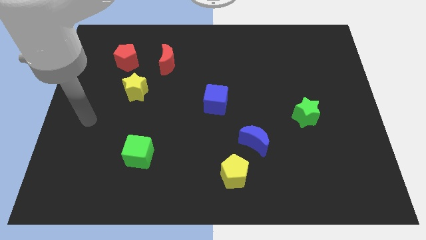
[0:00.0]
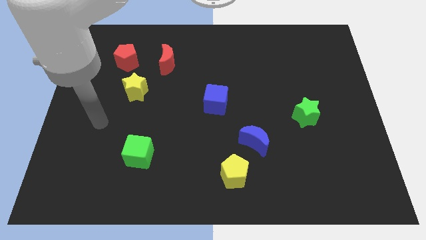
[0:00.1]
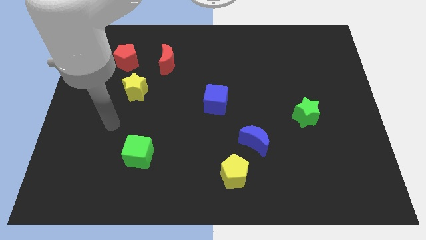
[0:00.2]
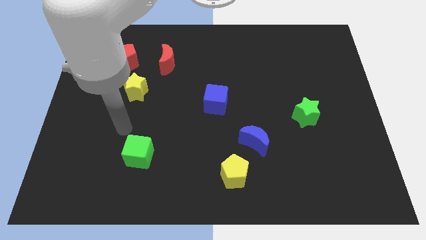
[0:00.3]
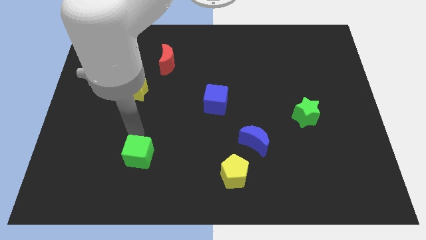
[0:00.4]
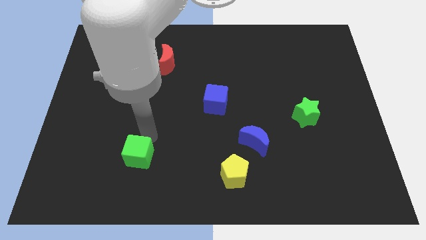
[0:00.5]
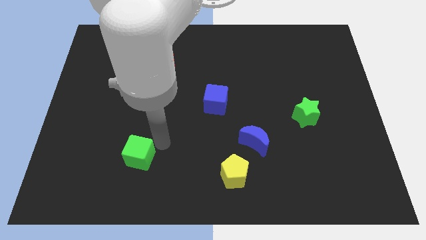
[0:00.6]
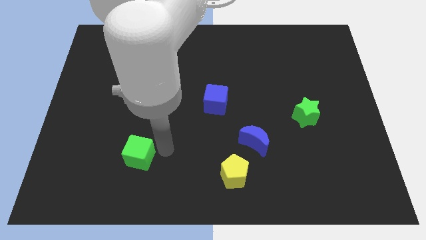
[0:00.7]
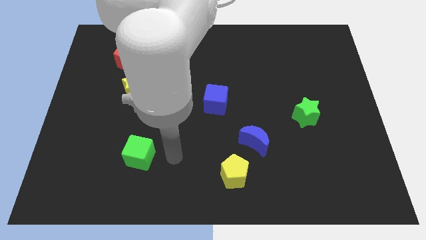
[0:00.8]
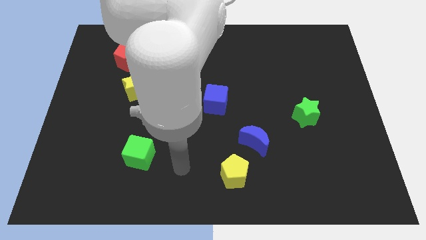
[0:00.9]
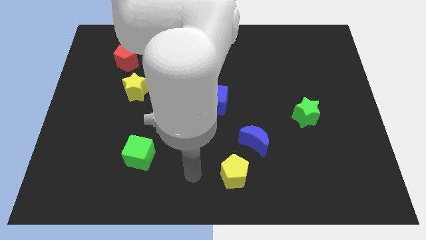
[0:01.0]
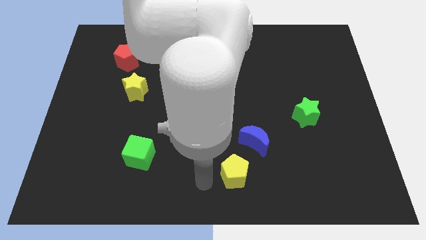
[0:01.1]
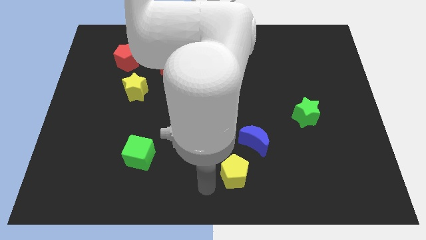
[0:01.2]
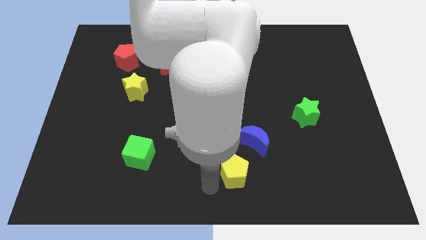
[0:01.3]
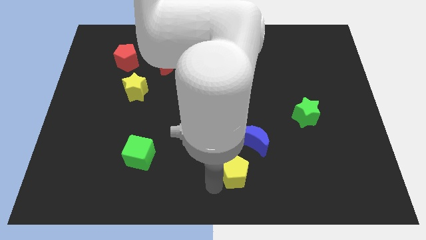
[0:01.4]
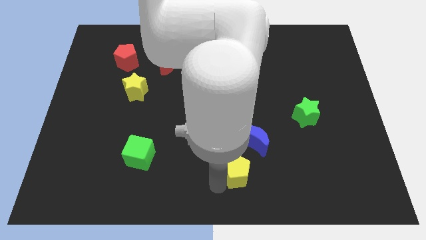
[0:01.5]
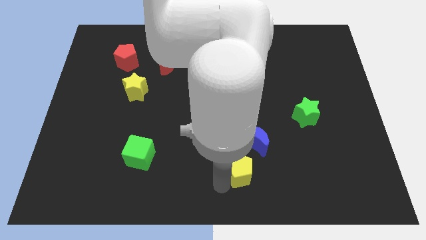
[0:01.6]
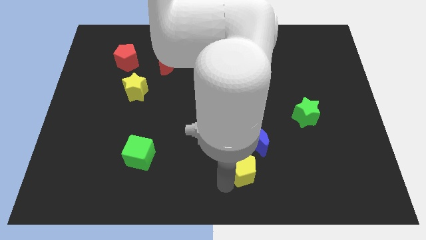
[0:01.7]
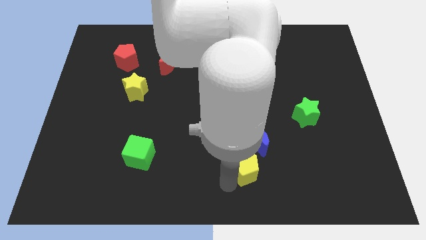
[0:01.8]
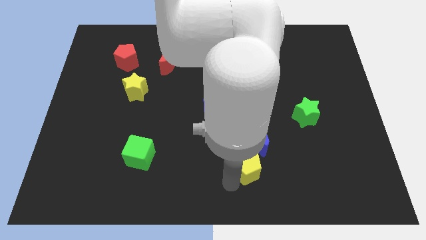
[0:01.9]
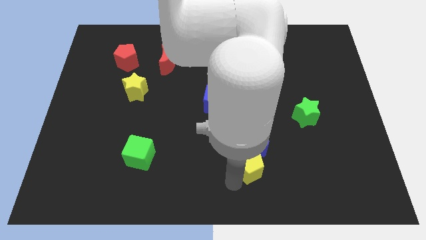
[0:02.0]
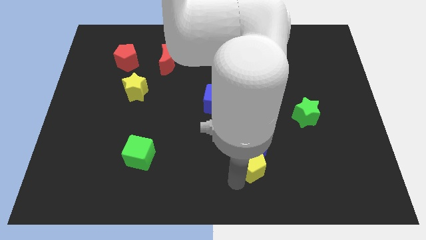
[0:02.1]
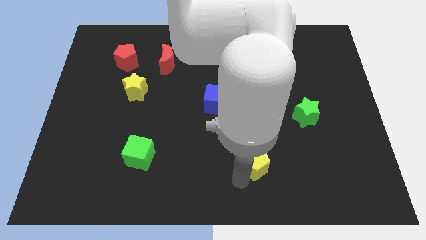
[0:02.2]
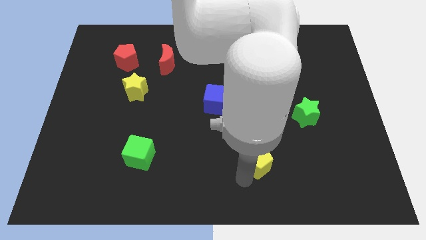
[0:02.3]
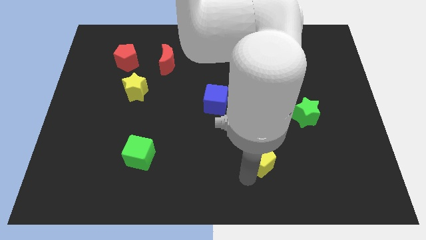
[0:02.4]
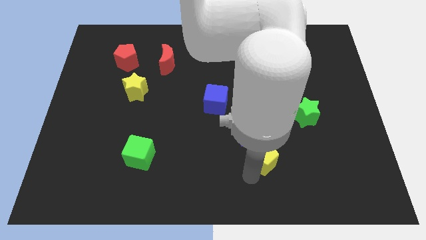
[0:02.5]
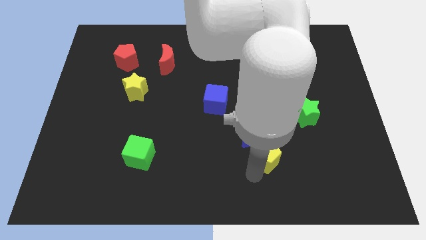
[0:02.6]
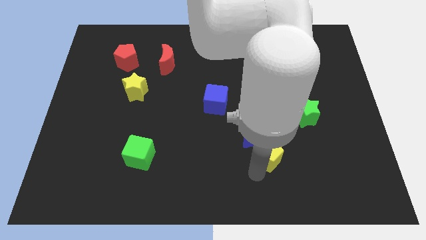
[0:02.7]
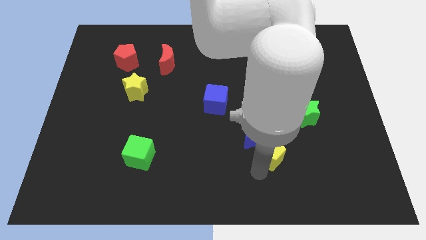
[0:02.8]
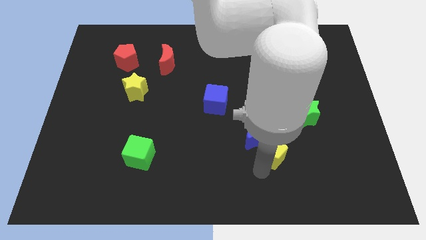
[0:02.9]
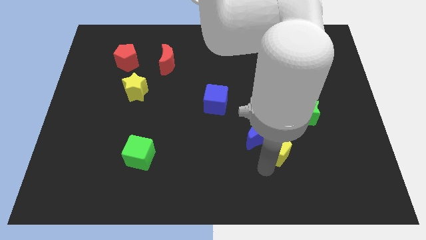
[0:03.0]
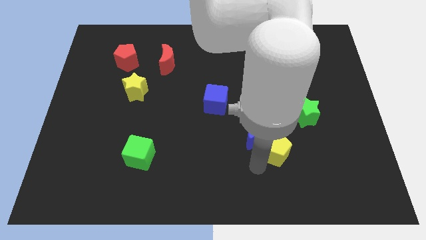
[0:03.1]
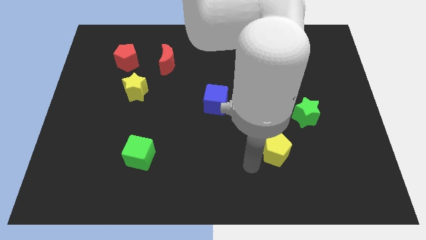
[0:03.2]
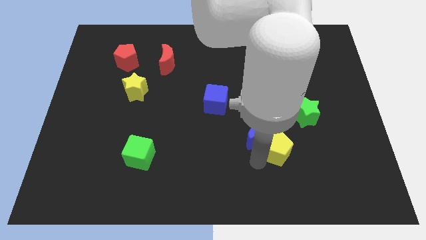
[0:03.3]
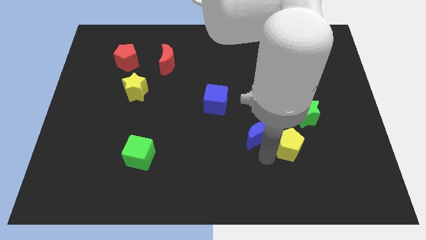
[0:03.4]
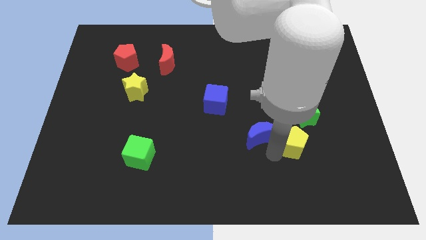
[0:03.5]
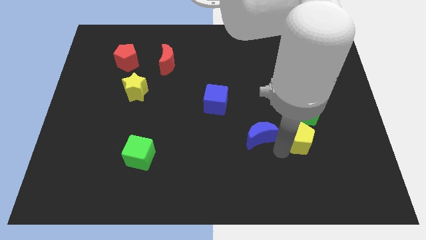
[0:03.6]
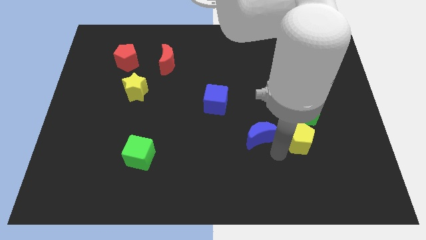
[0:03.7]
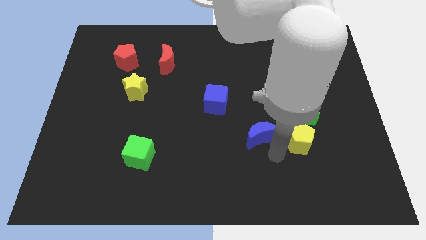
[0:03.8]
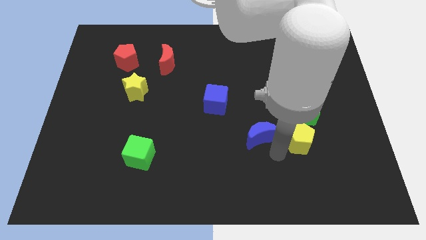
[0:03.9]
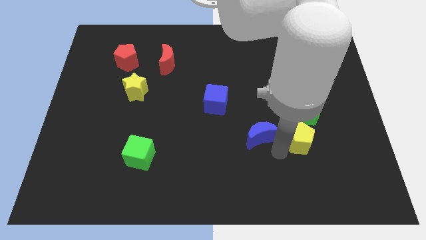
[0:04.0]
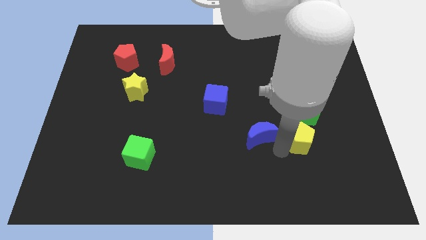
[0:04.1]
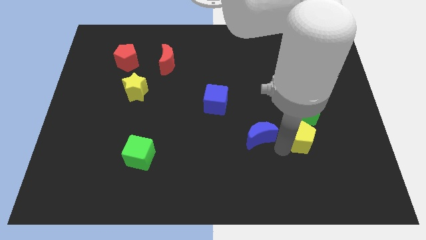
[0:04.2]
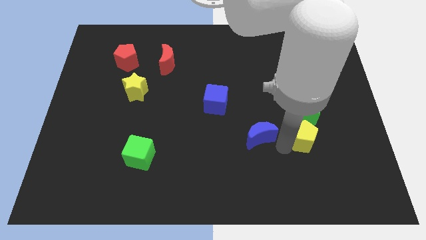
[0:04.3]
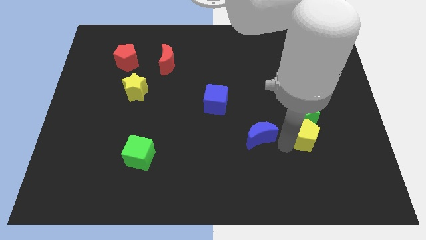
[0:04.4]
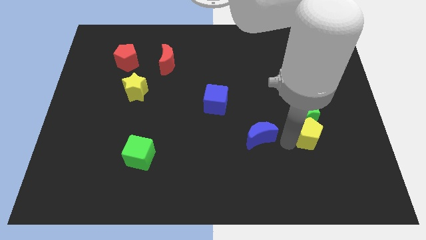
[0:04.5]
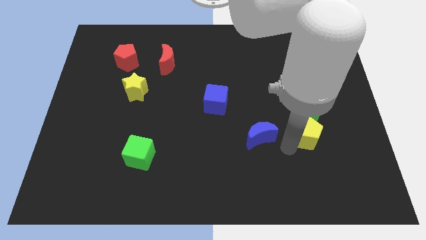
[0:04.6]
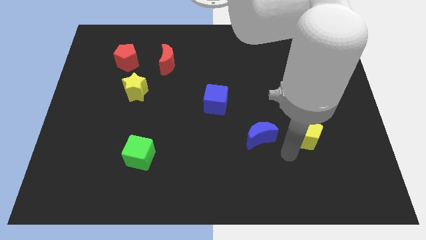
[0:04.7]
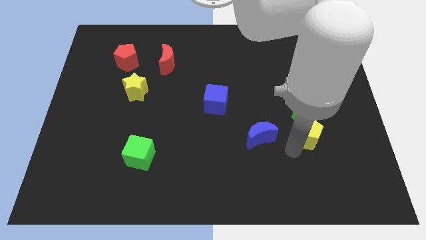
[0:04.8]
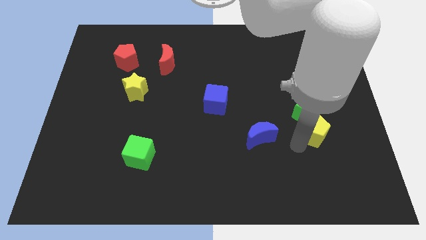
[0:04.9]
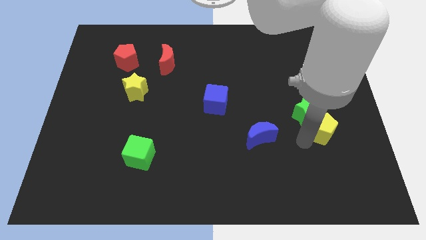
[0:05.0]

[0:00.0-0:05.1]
move the yellow pentagon diagonally upwards and right

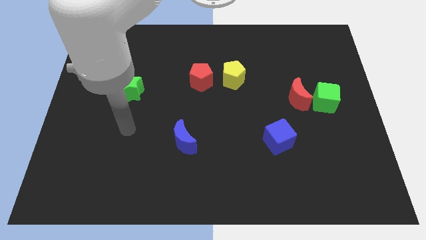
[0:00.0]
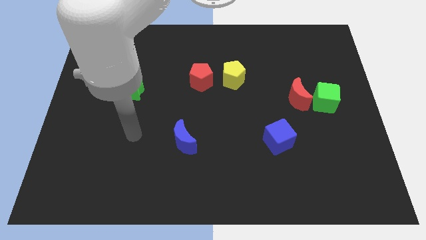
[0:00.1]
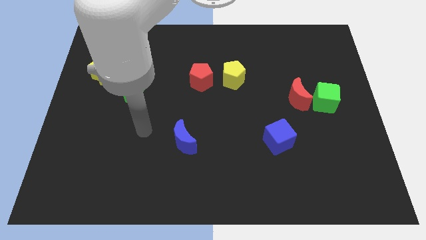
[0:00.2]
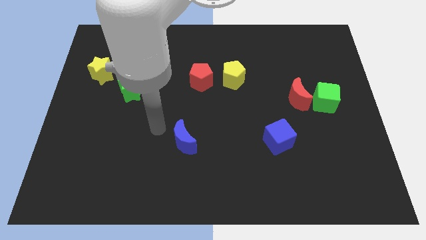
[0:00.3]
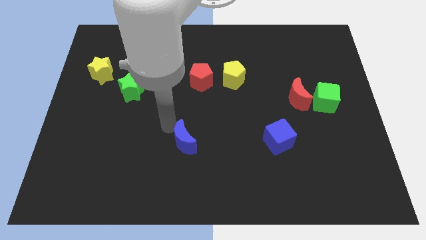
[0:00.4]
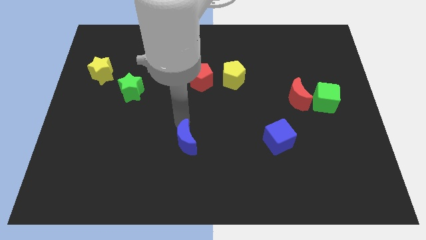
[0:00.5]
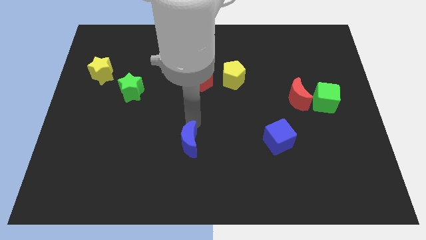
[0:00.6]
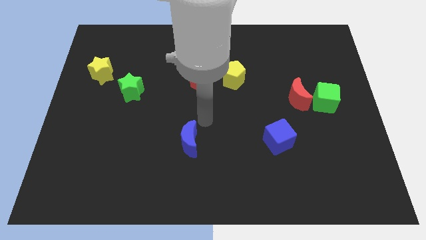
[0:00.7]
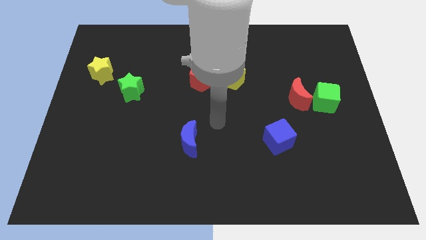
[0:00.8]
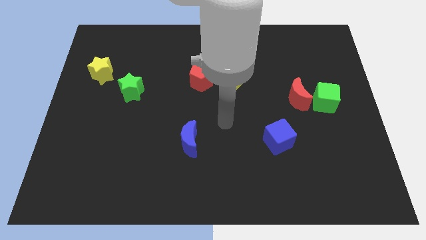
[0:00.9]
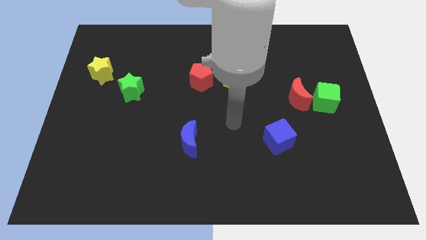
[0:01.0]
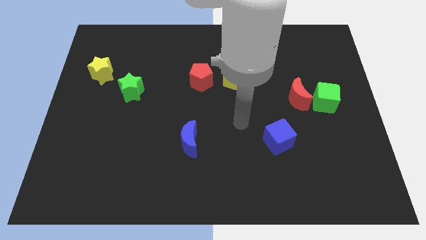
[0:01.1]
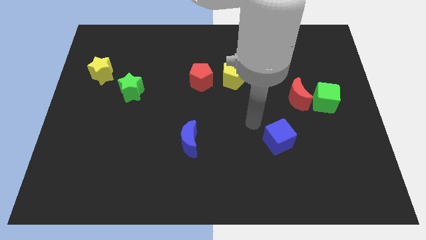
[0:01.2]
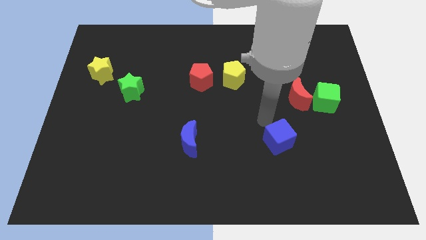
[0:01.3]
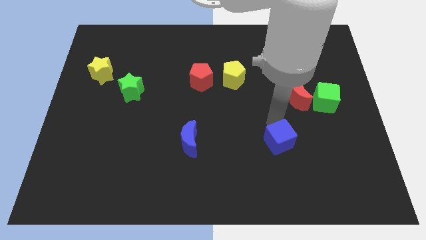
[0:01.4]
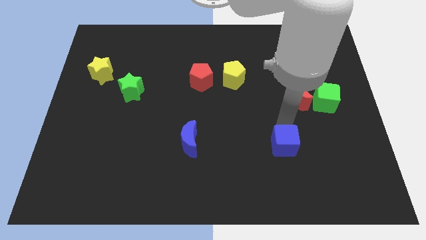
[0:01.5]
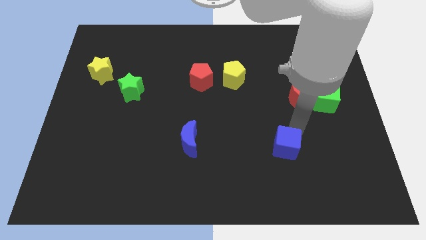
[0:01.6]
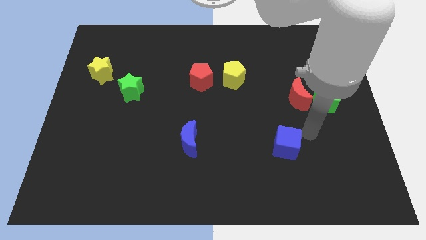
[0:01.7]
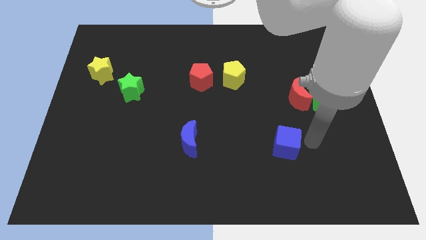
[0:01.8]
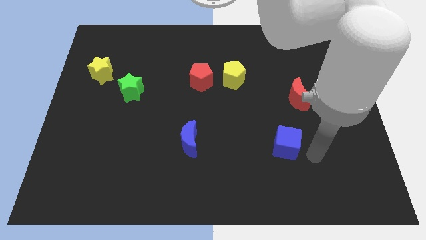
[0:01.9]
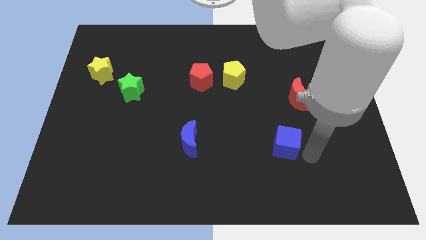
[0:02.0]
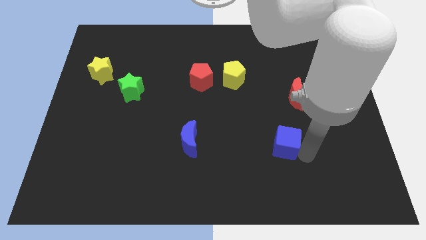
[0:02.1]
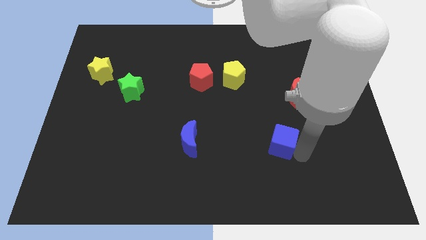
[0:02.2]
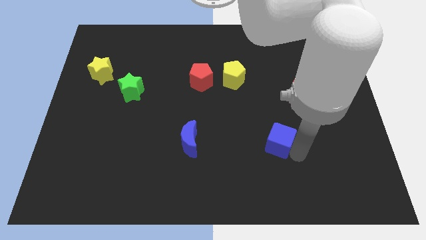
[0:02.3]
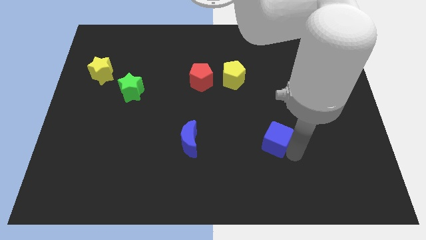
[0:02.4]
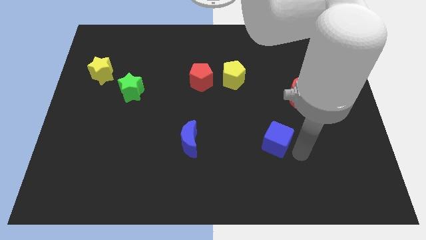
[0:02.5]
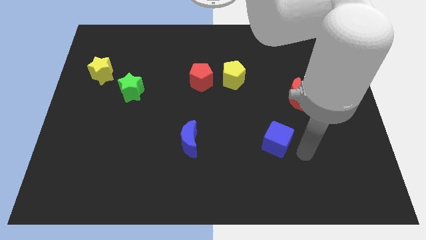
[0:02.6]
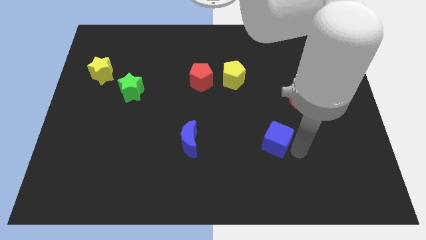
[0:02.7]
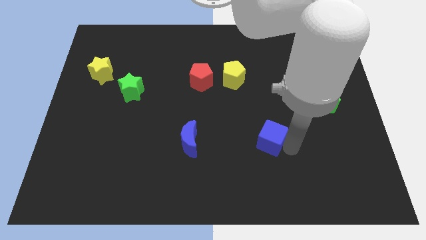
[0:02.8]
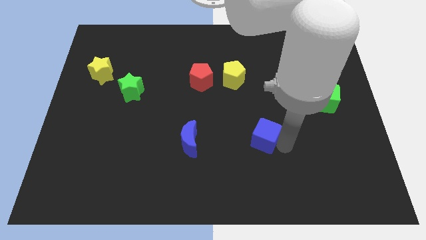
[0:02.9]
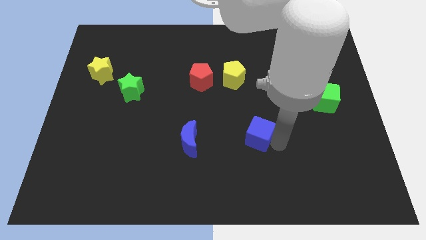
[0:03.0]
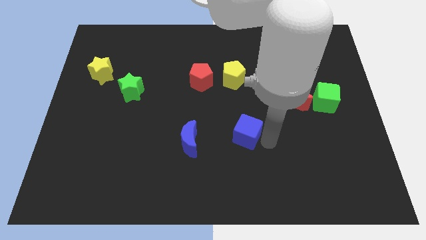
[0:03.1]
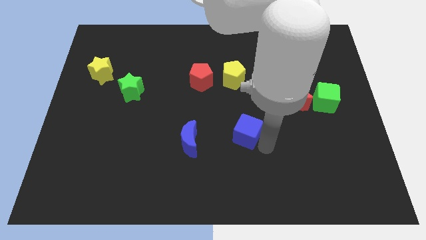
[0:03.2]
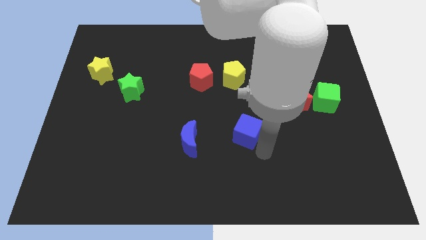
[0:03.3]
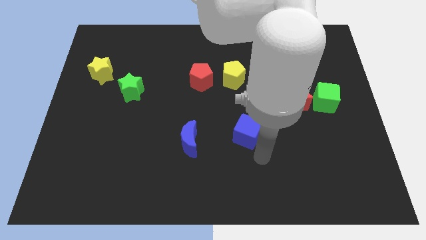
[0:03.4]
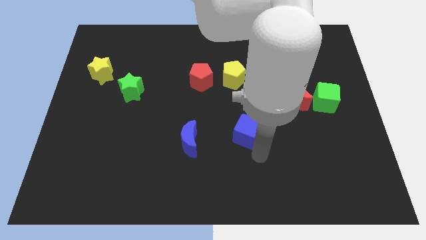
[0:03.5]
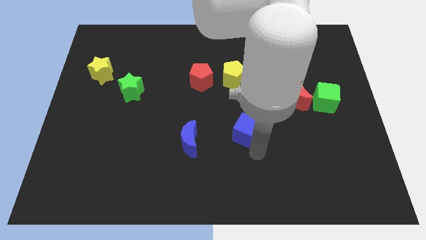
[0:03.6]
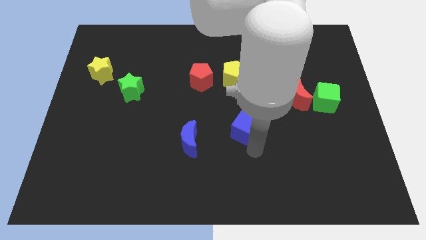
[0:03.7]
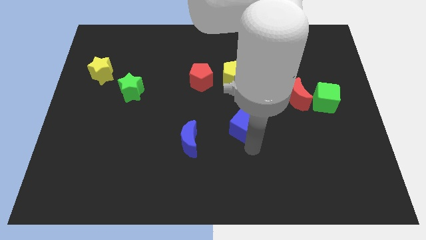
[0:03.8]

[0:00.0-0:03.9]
move the blue cube upwards and then left slightly
